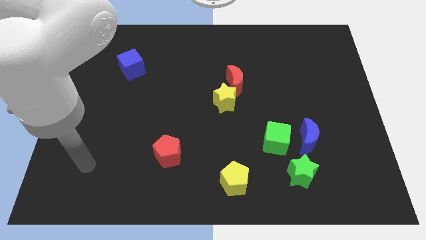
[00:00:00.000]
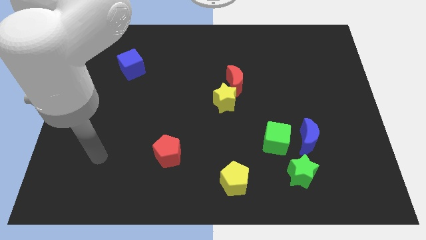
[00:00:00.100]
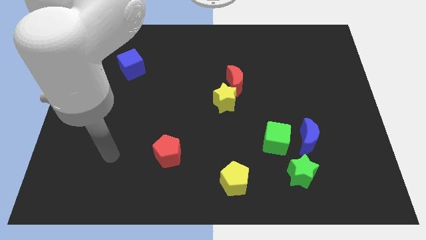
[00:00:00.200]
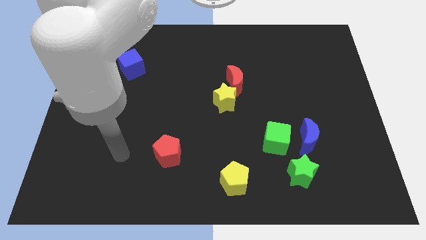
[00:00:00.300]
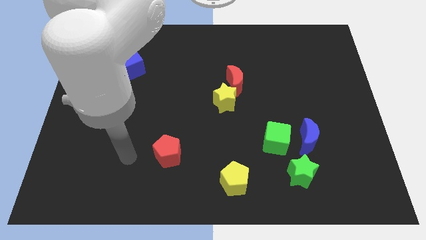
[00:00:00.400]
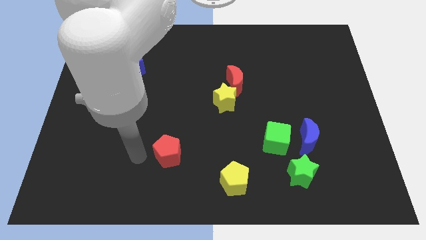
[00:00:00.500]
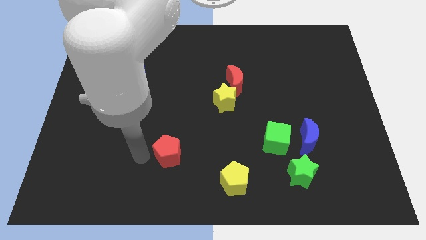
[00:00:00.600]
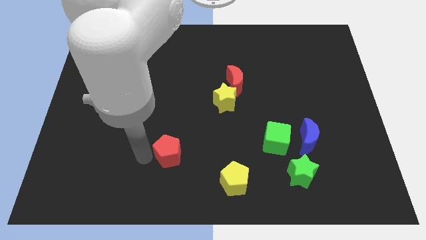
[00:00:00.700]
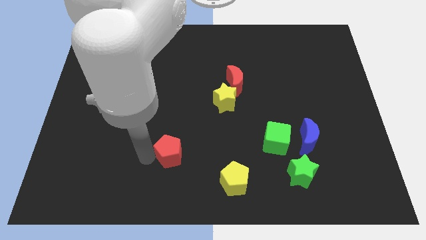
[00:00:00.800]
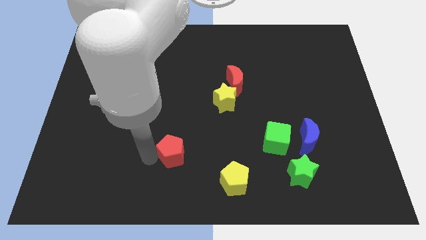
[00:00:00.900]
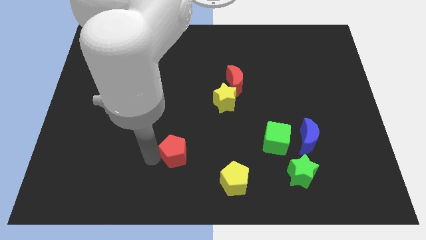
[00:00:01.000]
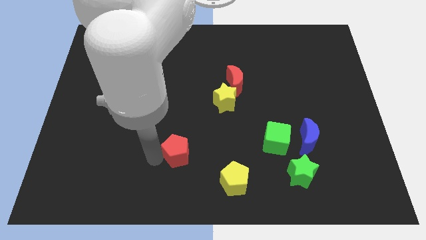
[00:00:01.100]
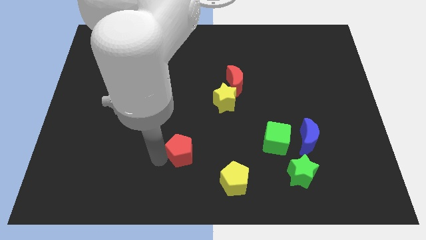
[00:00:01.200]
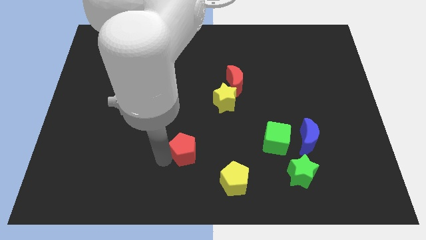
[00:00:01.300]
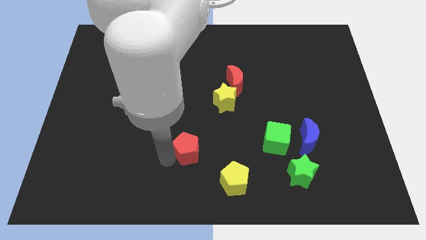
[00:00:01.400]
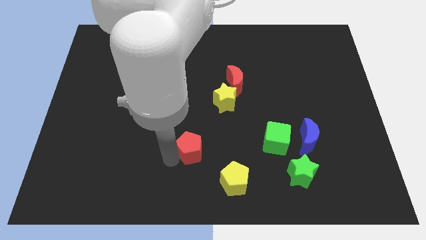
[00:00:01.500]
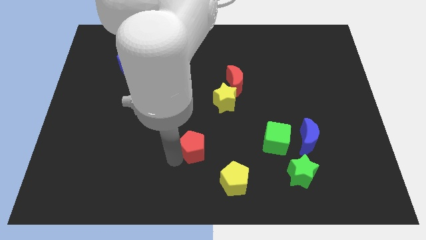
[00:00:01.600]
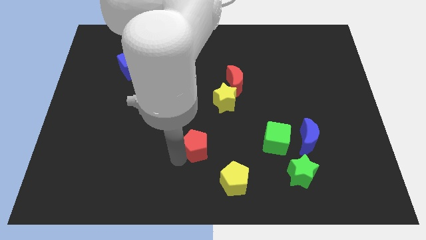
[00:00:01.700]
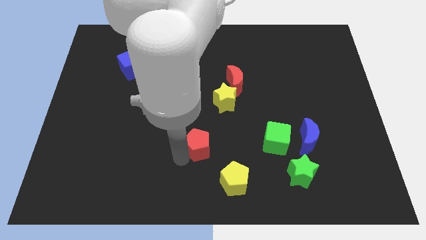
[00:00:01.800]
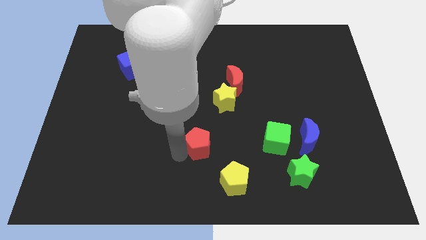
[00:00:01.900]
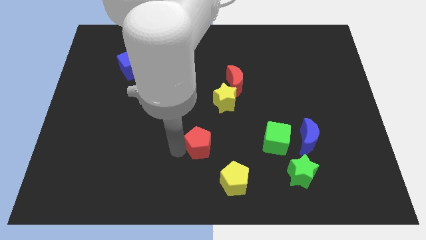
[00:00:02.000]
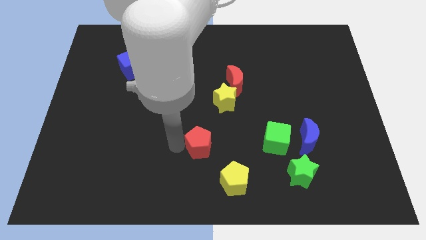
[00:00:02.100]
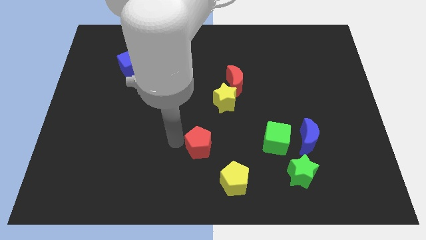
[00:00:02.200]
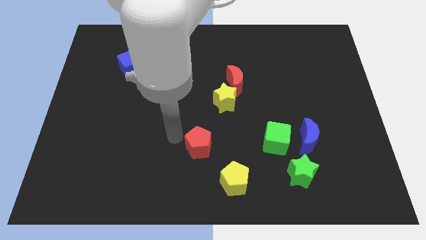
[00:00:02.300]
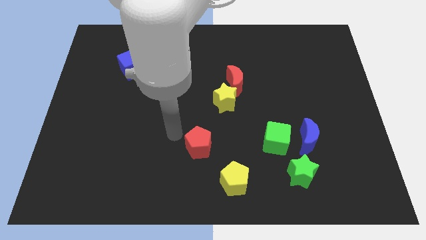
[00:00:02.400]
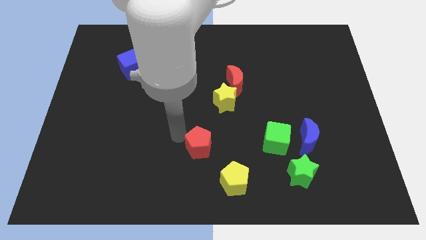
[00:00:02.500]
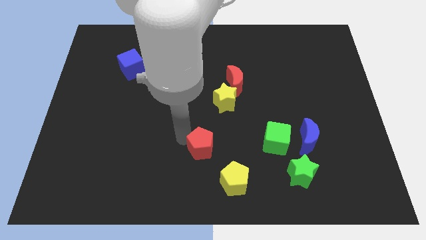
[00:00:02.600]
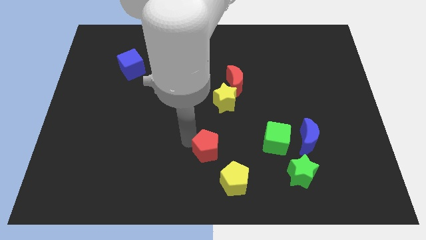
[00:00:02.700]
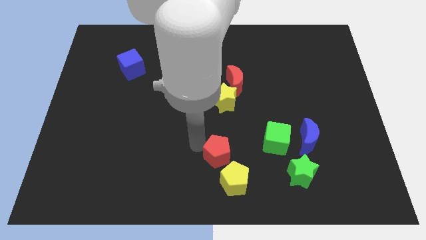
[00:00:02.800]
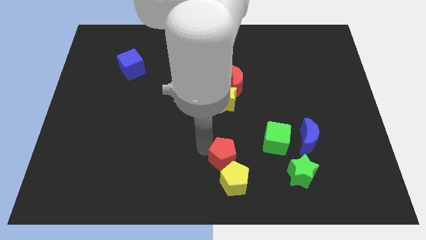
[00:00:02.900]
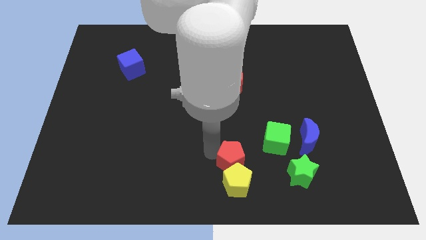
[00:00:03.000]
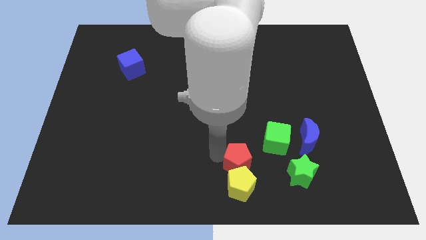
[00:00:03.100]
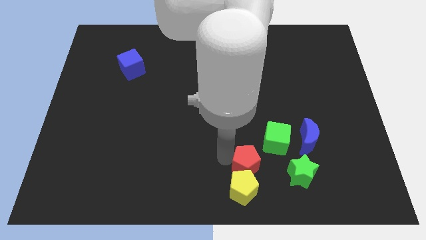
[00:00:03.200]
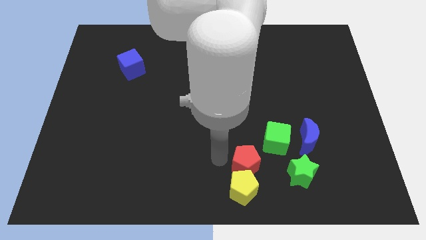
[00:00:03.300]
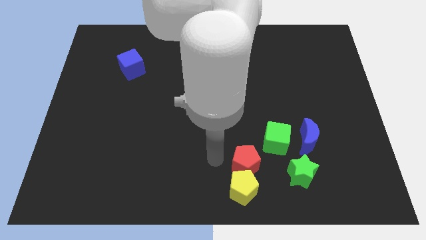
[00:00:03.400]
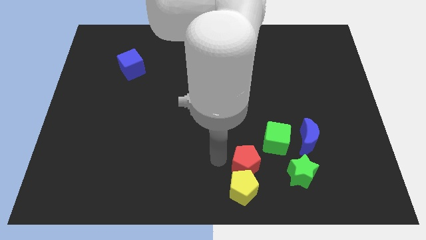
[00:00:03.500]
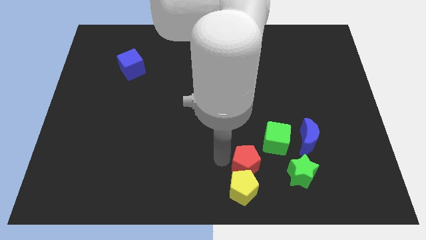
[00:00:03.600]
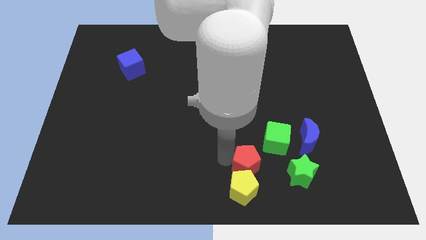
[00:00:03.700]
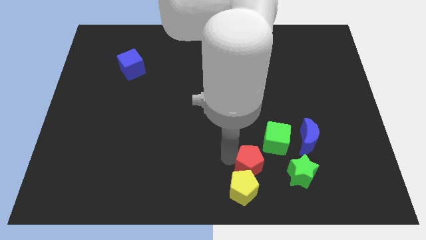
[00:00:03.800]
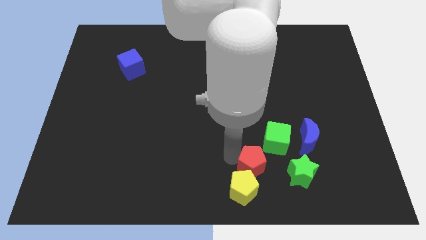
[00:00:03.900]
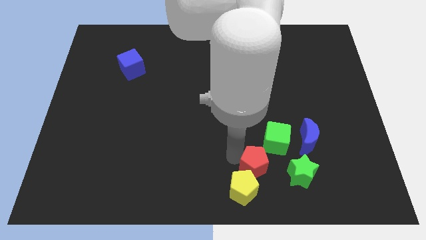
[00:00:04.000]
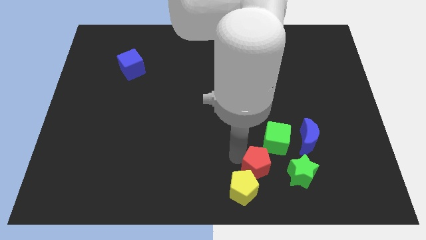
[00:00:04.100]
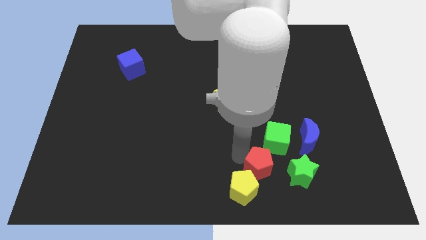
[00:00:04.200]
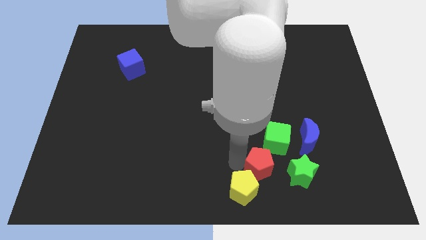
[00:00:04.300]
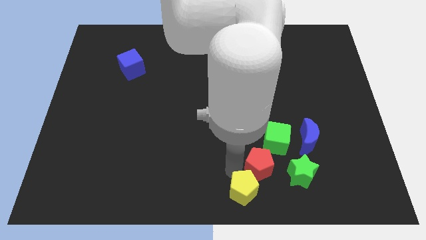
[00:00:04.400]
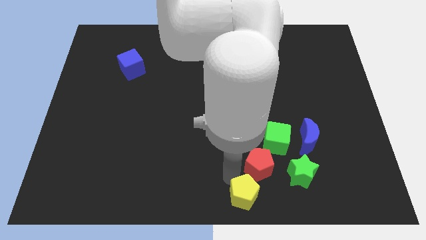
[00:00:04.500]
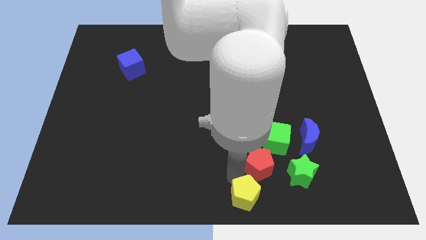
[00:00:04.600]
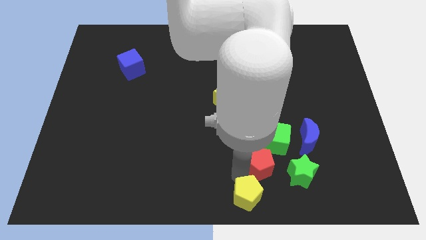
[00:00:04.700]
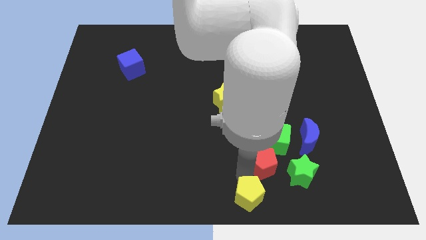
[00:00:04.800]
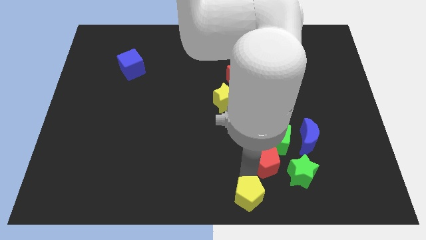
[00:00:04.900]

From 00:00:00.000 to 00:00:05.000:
slide the red pentagon to the right

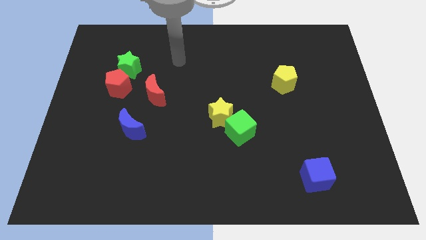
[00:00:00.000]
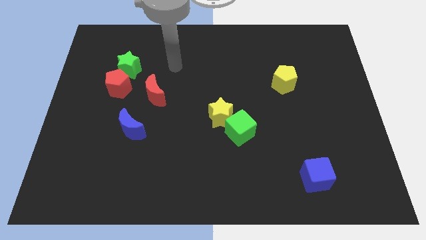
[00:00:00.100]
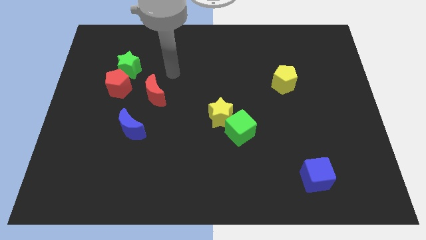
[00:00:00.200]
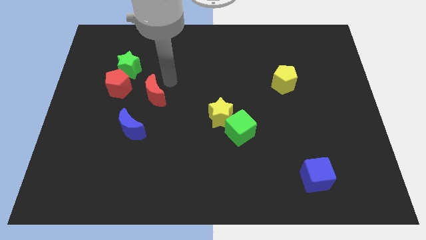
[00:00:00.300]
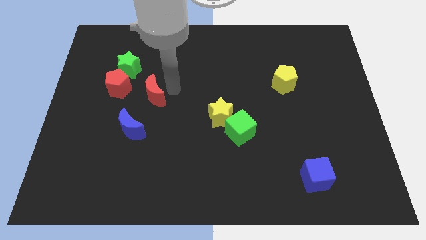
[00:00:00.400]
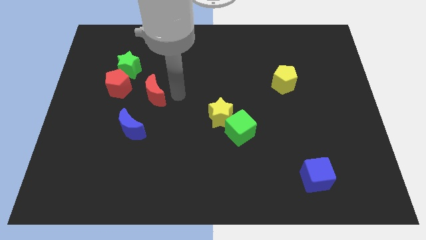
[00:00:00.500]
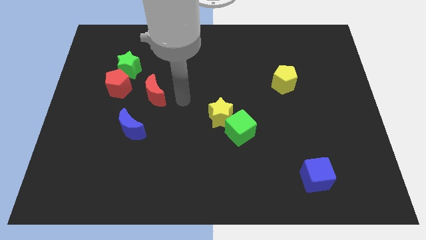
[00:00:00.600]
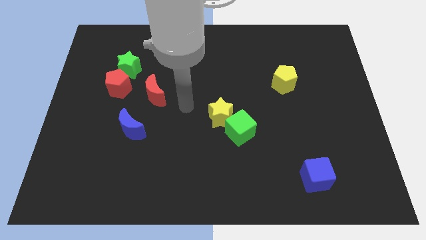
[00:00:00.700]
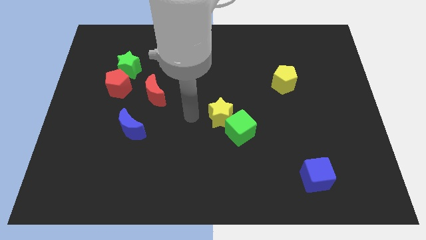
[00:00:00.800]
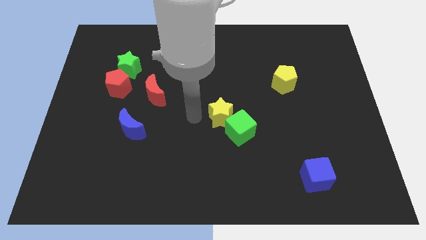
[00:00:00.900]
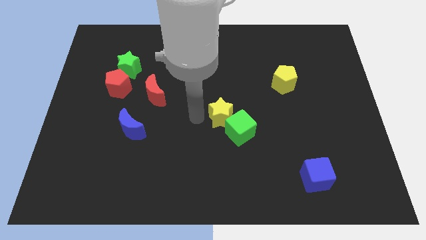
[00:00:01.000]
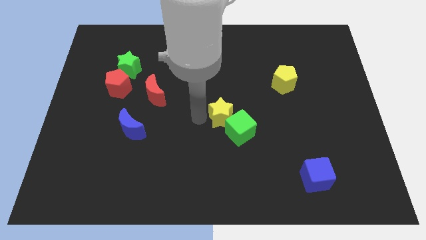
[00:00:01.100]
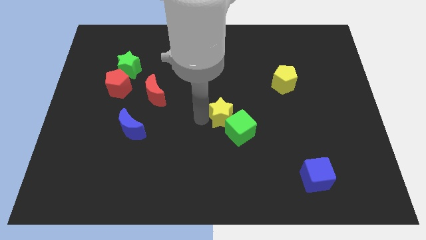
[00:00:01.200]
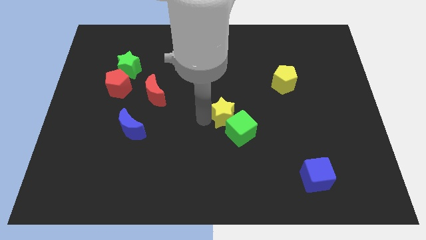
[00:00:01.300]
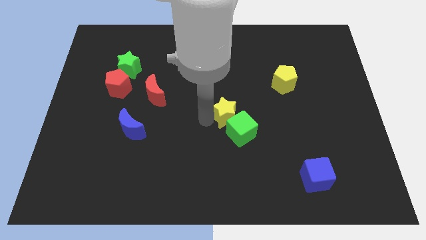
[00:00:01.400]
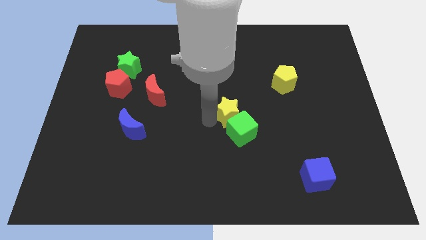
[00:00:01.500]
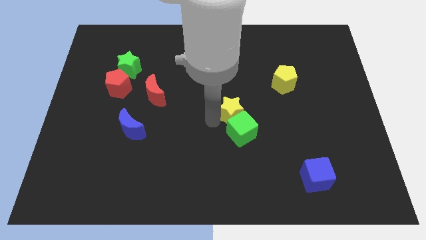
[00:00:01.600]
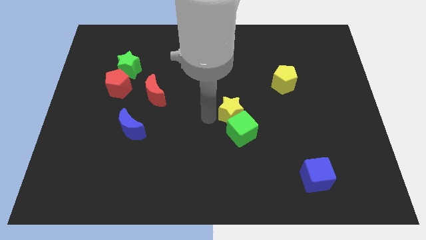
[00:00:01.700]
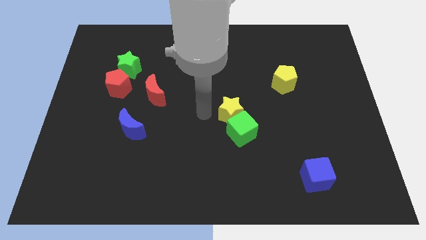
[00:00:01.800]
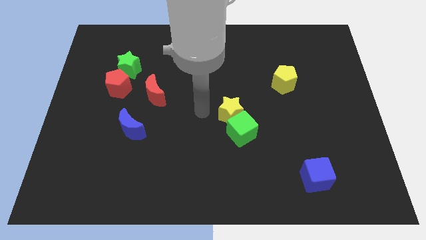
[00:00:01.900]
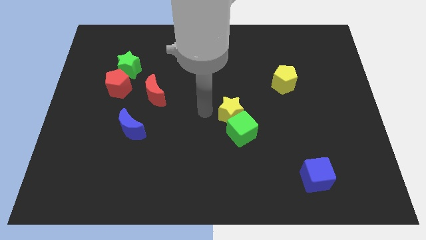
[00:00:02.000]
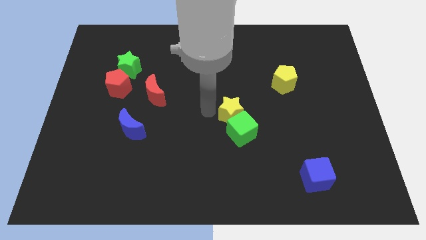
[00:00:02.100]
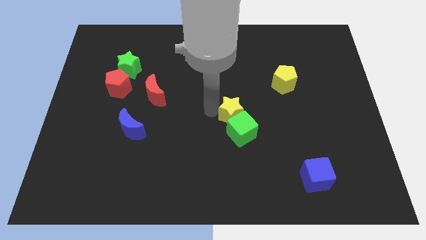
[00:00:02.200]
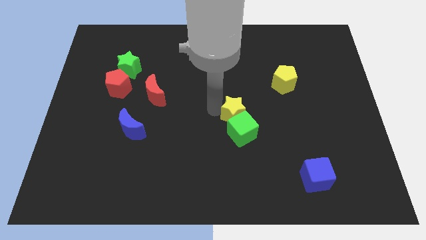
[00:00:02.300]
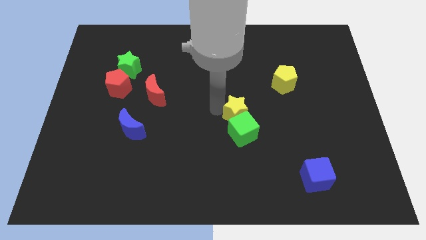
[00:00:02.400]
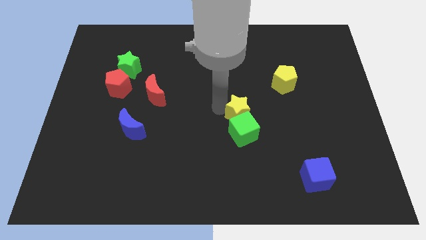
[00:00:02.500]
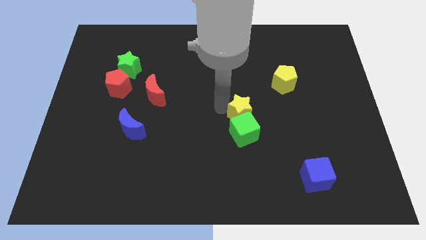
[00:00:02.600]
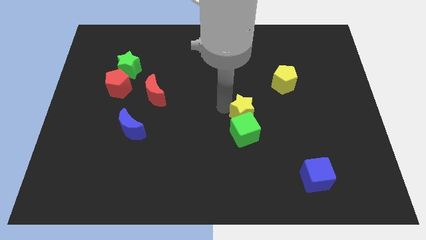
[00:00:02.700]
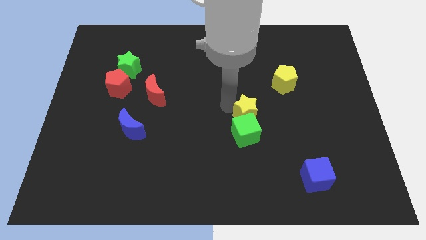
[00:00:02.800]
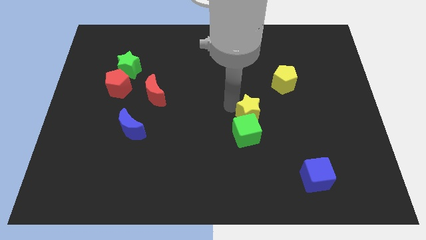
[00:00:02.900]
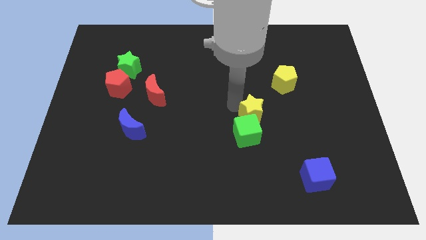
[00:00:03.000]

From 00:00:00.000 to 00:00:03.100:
push the yellow star slightly to the right
